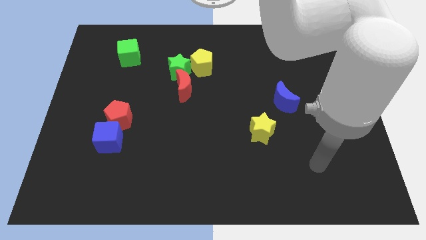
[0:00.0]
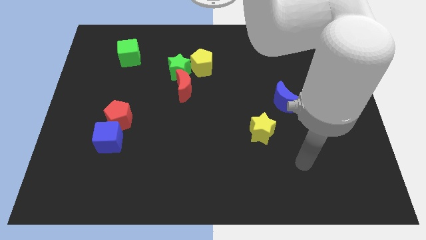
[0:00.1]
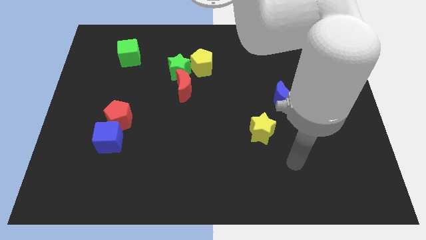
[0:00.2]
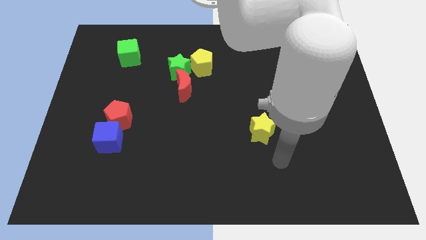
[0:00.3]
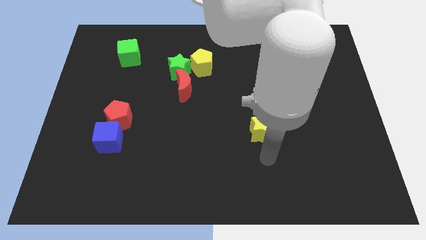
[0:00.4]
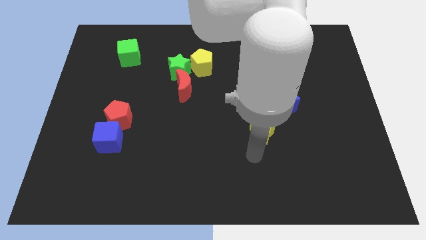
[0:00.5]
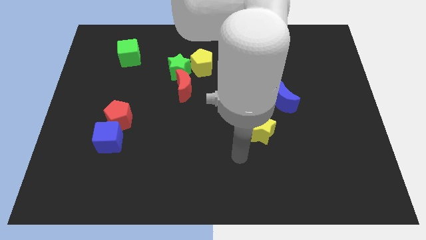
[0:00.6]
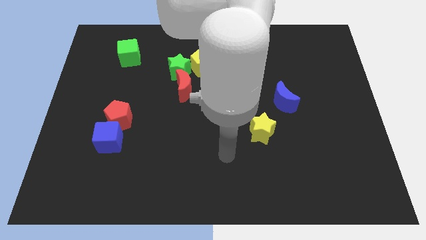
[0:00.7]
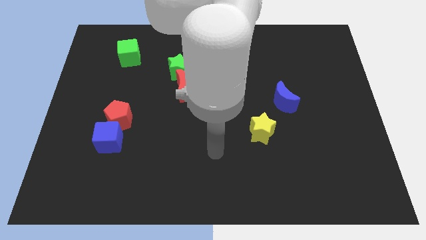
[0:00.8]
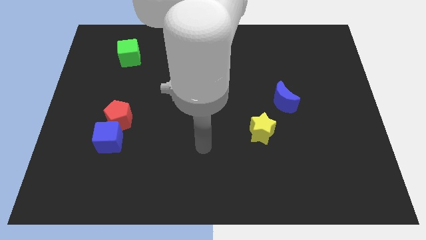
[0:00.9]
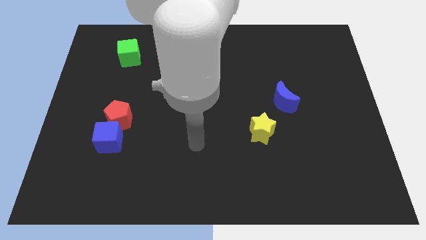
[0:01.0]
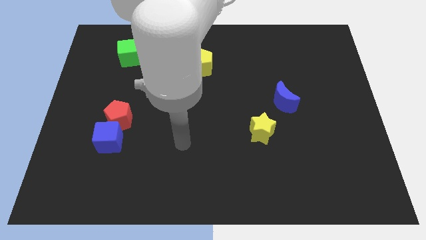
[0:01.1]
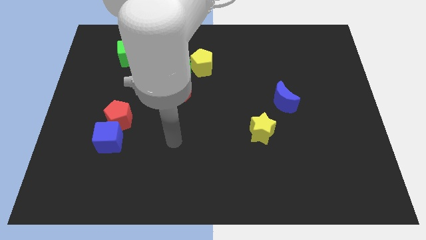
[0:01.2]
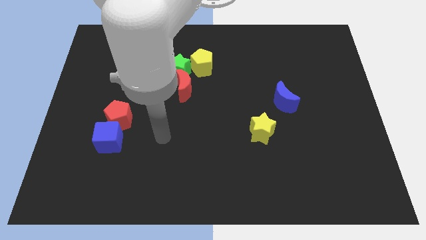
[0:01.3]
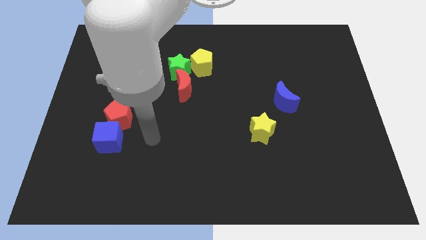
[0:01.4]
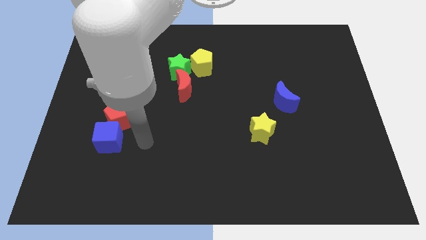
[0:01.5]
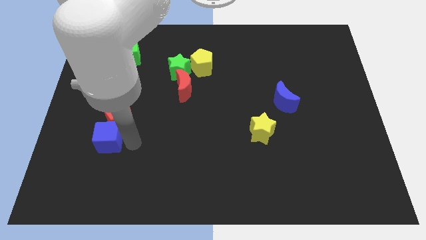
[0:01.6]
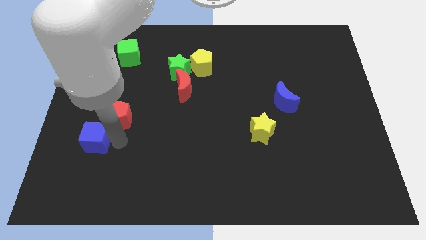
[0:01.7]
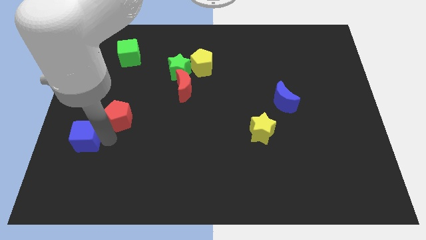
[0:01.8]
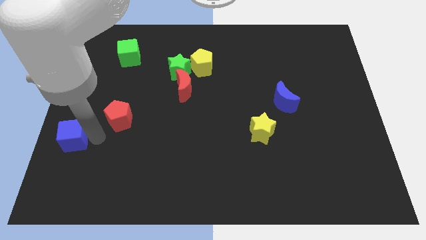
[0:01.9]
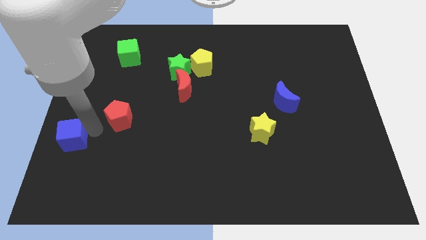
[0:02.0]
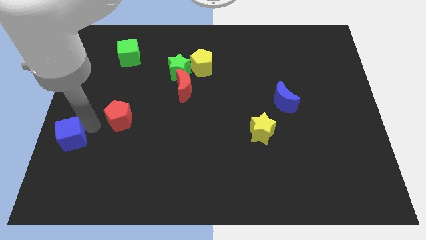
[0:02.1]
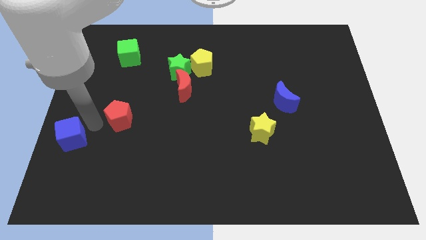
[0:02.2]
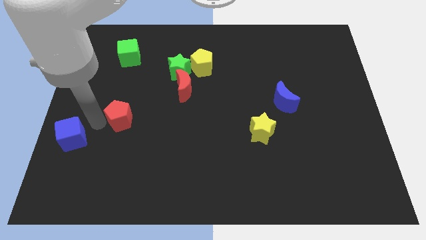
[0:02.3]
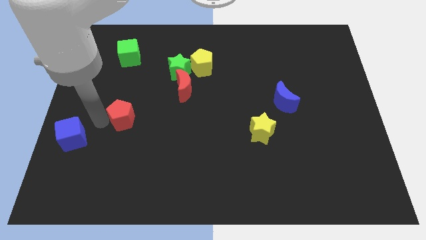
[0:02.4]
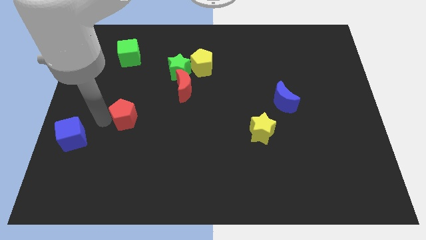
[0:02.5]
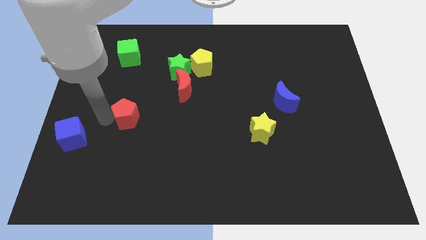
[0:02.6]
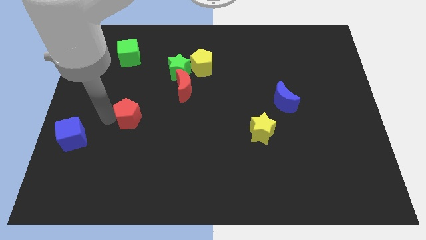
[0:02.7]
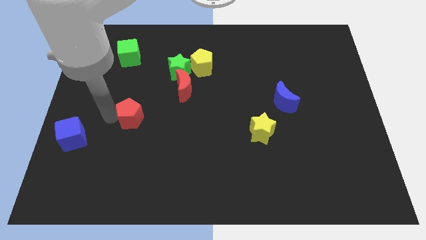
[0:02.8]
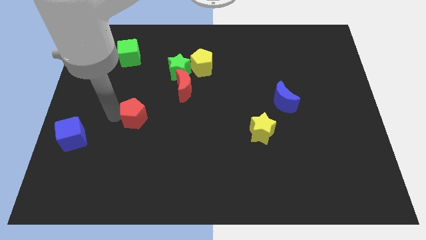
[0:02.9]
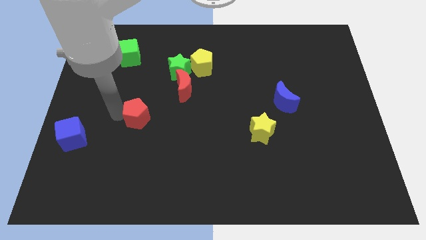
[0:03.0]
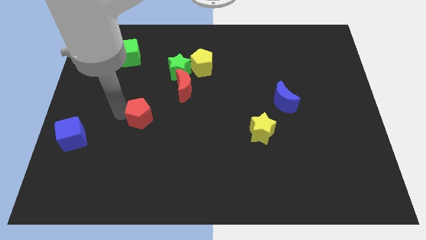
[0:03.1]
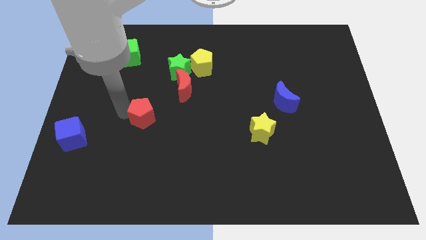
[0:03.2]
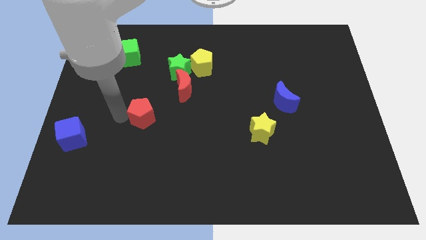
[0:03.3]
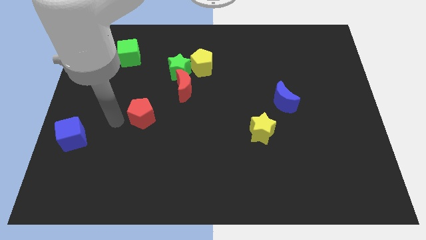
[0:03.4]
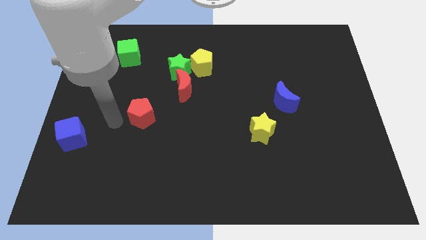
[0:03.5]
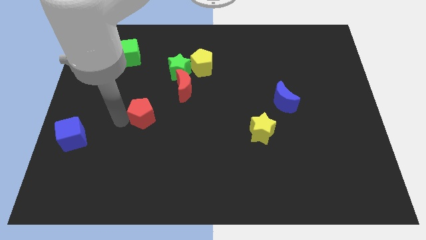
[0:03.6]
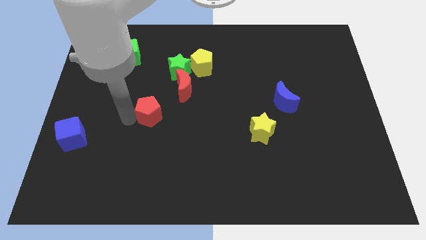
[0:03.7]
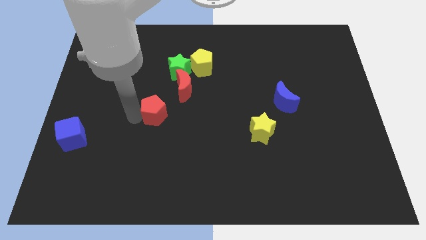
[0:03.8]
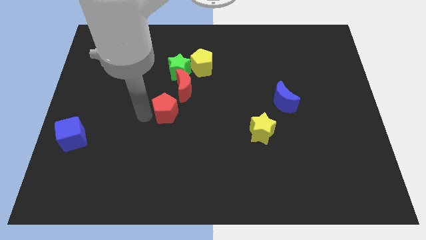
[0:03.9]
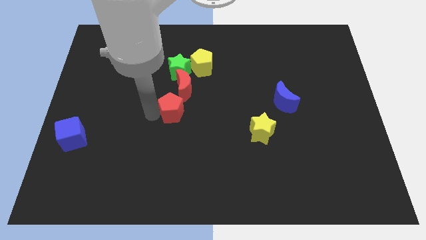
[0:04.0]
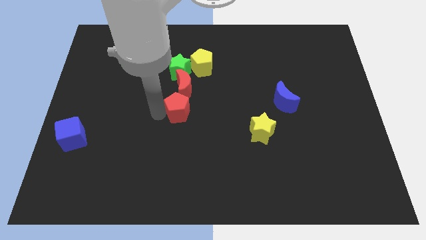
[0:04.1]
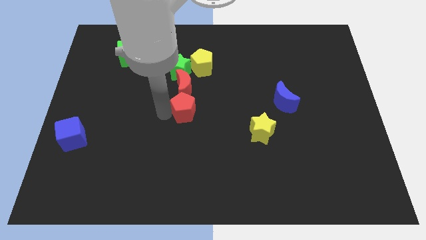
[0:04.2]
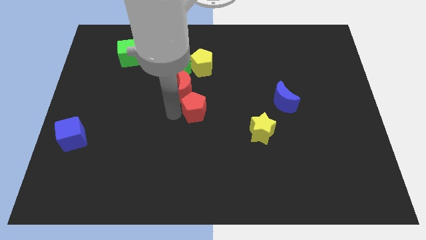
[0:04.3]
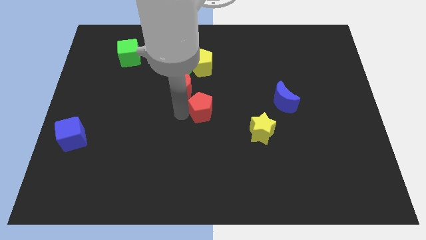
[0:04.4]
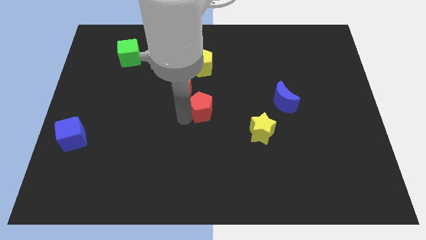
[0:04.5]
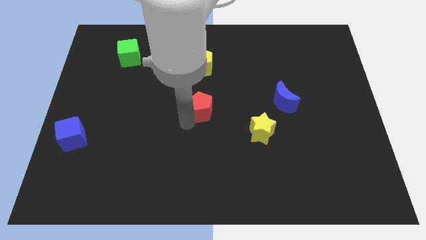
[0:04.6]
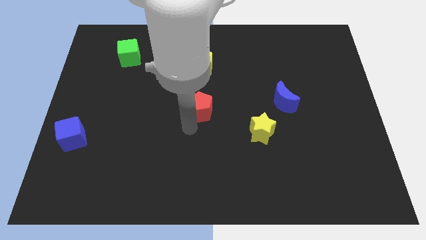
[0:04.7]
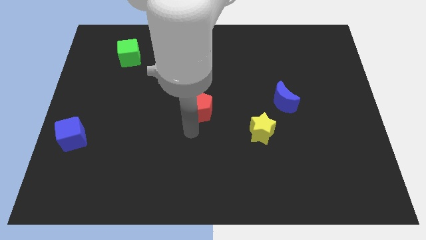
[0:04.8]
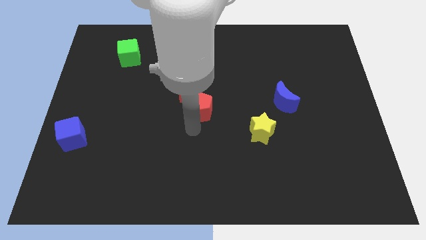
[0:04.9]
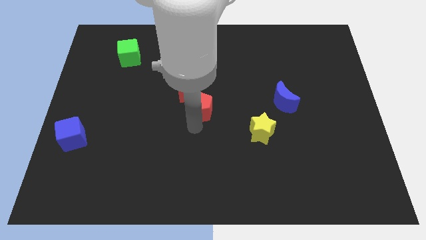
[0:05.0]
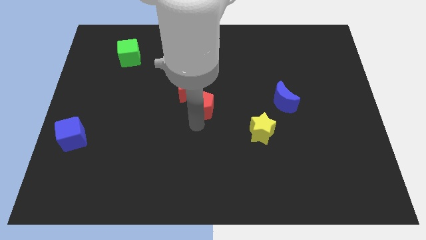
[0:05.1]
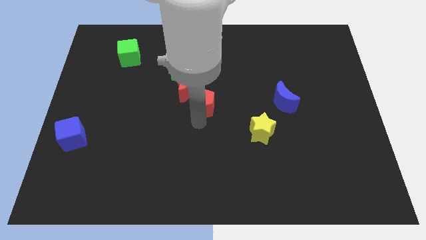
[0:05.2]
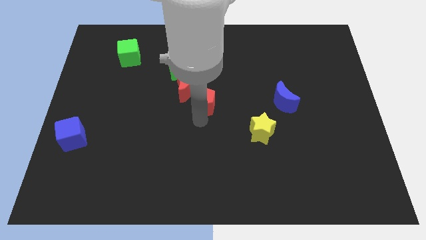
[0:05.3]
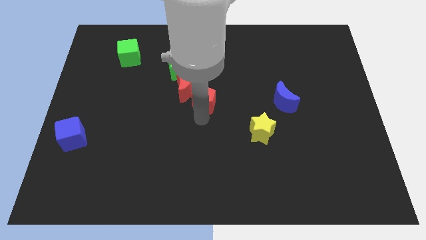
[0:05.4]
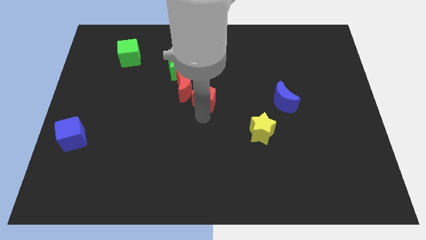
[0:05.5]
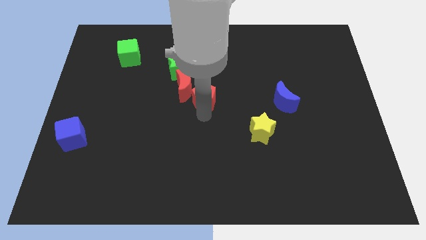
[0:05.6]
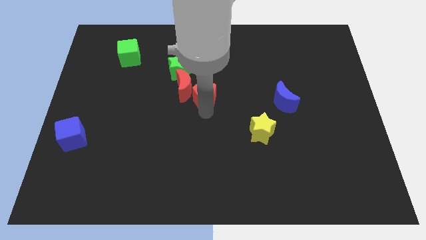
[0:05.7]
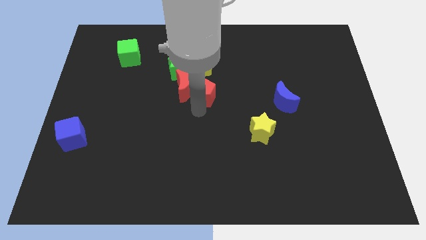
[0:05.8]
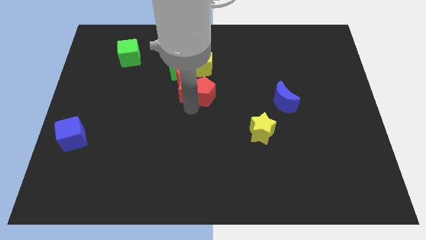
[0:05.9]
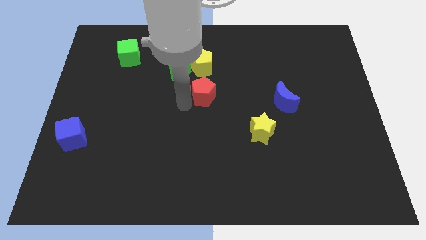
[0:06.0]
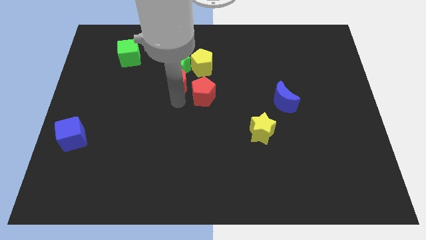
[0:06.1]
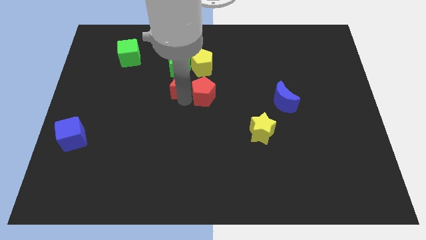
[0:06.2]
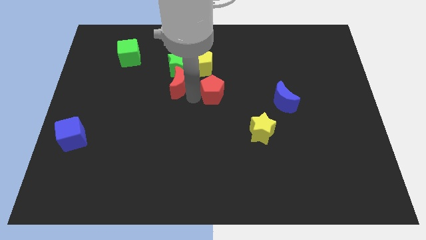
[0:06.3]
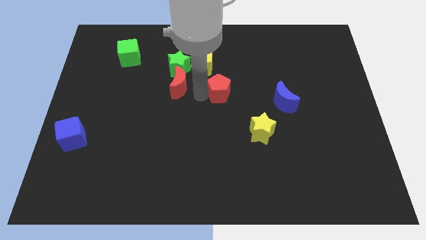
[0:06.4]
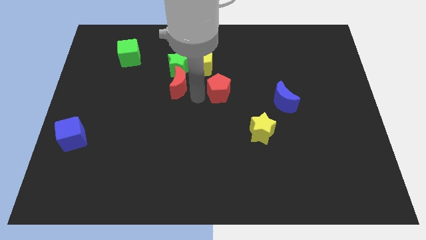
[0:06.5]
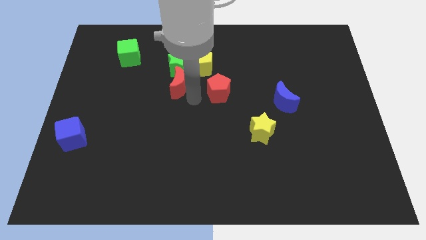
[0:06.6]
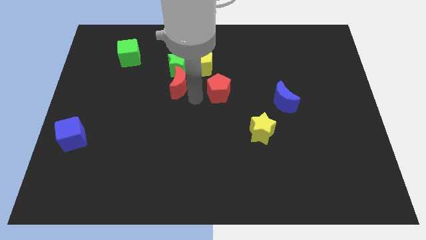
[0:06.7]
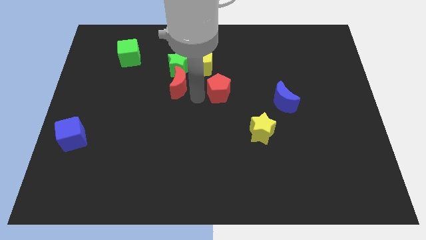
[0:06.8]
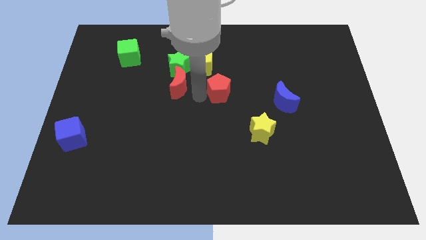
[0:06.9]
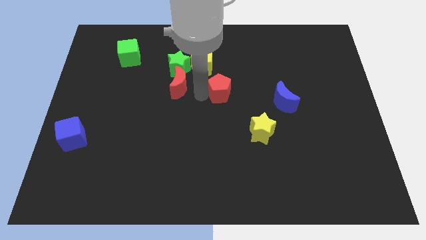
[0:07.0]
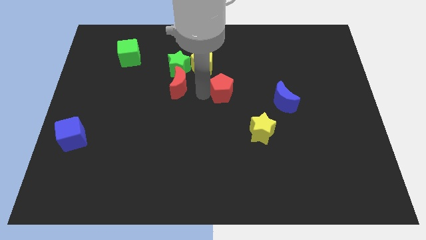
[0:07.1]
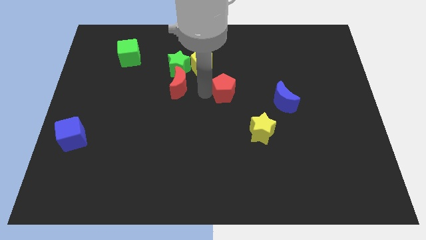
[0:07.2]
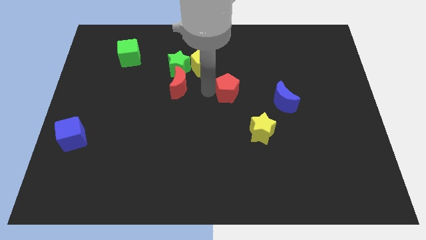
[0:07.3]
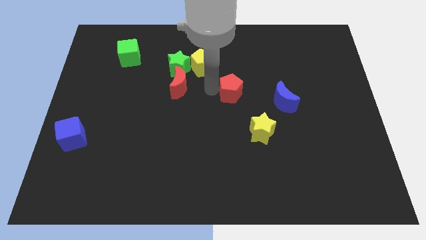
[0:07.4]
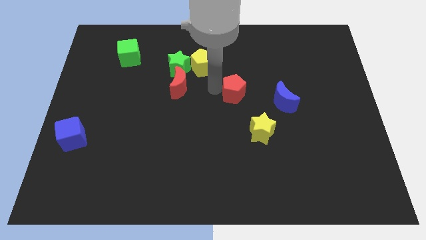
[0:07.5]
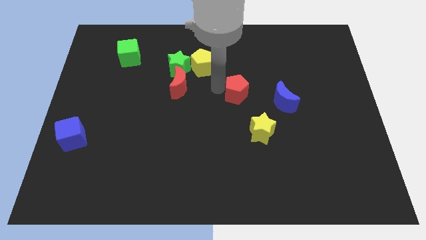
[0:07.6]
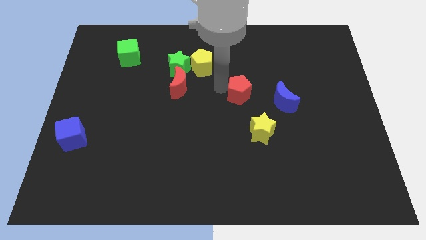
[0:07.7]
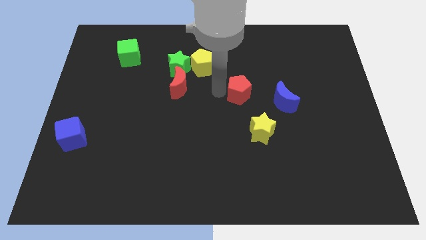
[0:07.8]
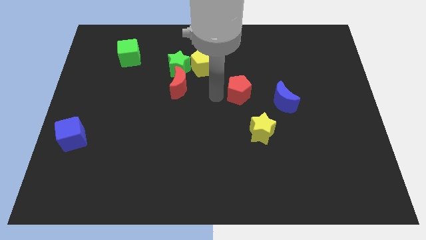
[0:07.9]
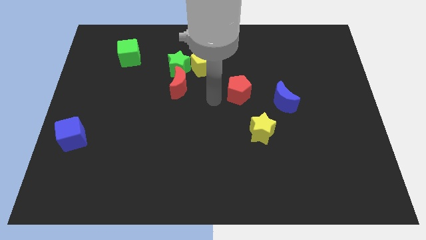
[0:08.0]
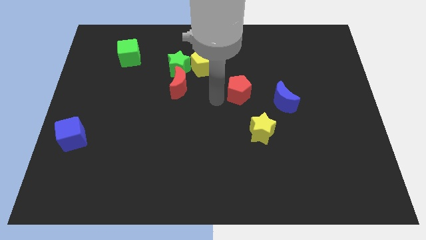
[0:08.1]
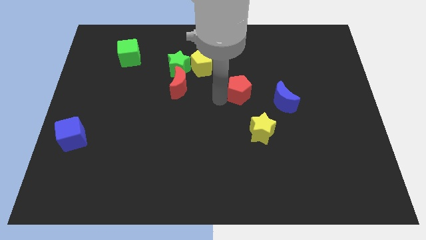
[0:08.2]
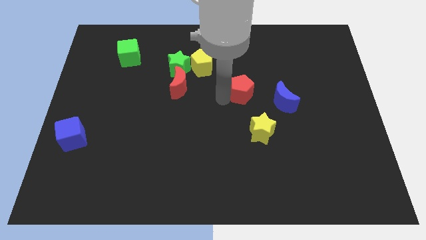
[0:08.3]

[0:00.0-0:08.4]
put the red pentagon to the top left of the blue moon
